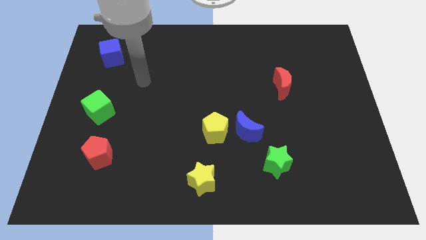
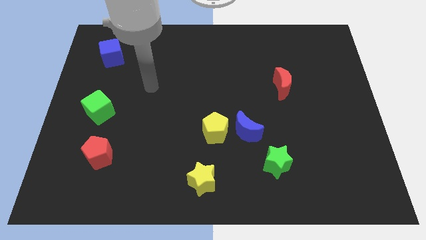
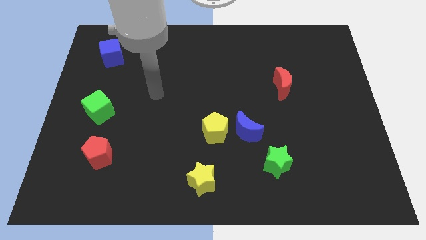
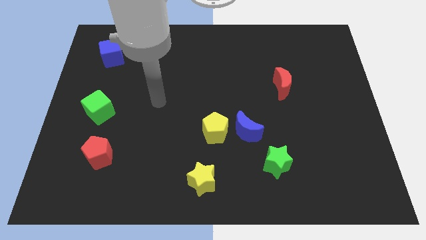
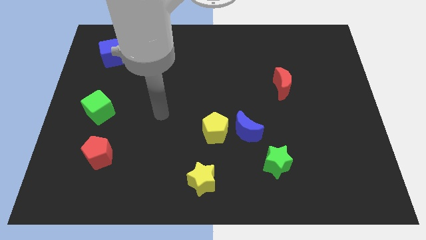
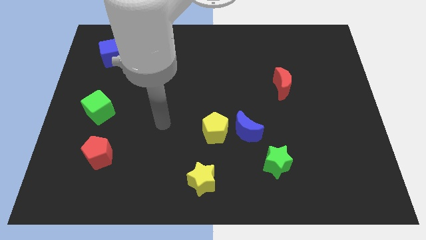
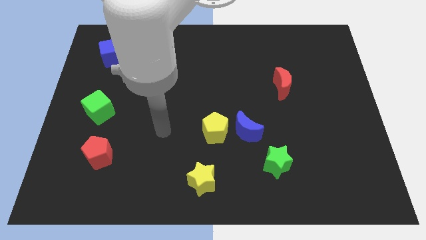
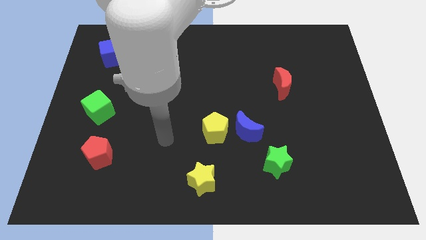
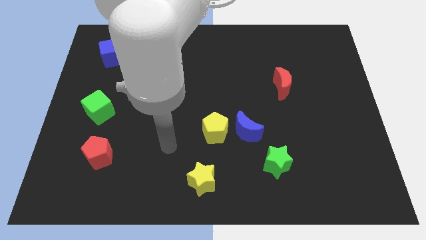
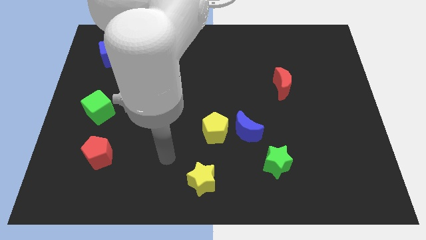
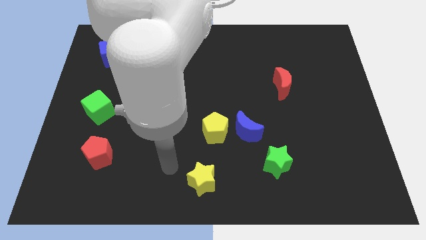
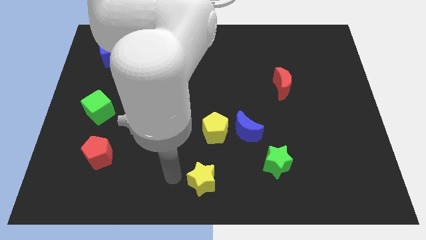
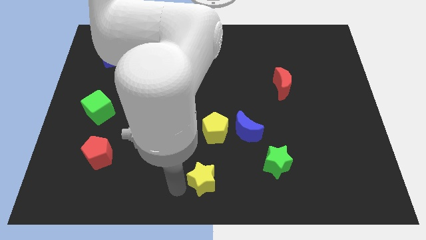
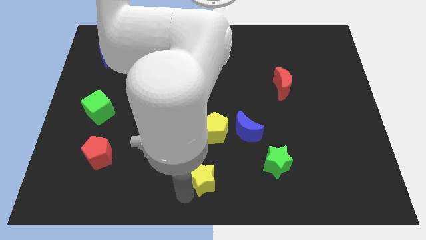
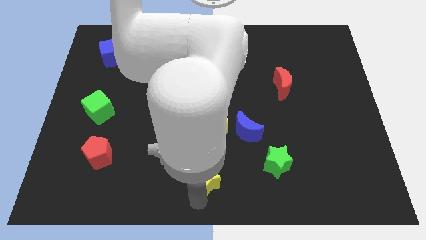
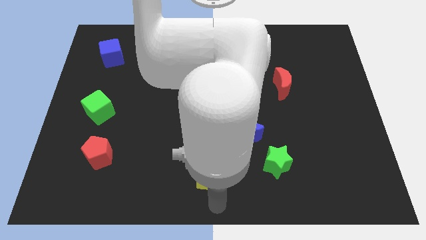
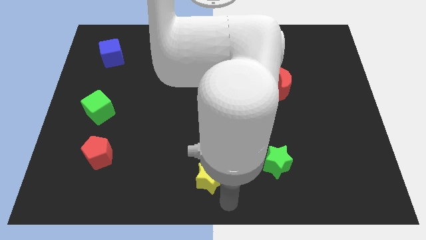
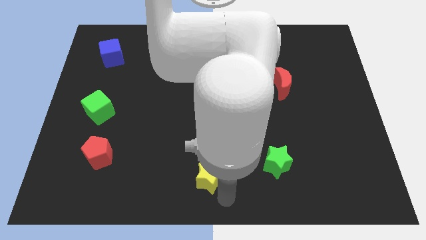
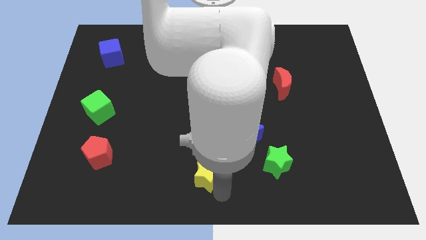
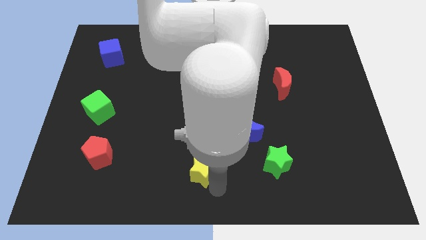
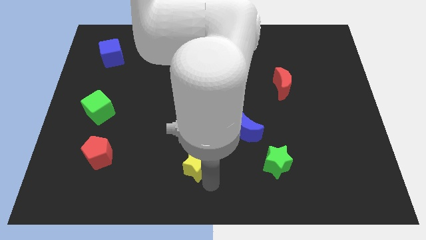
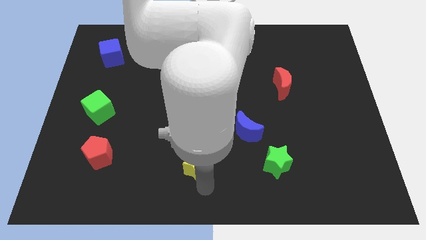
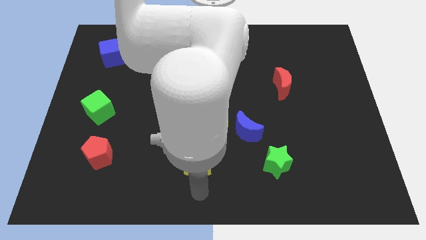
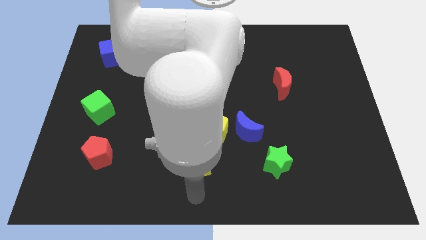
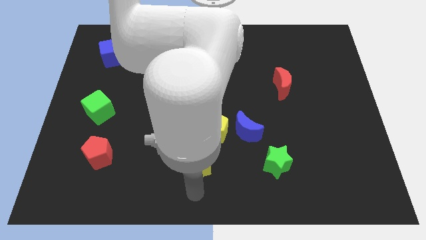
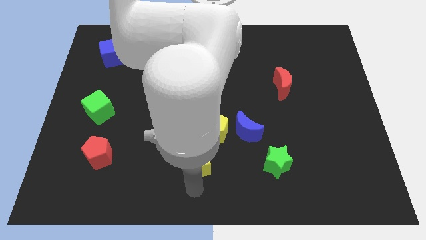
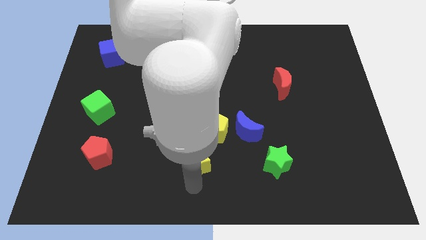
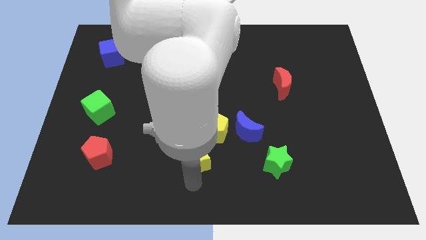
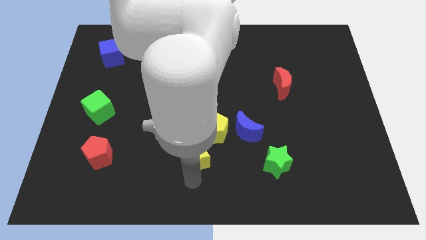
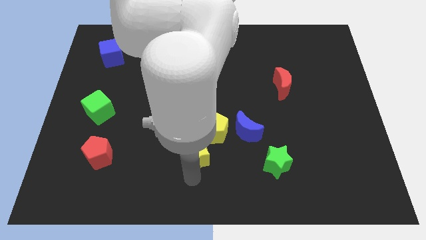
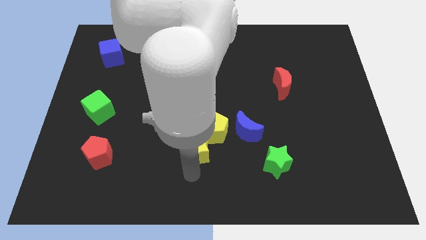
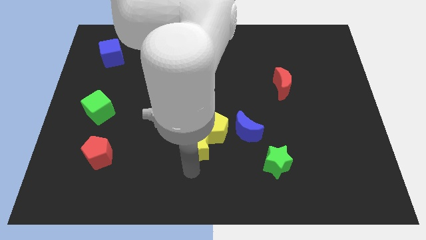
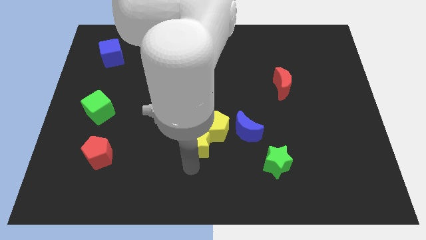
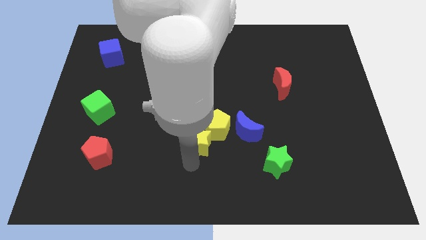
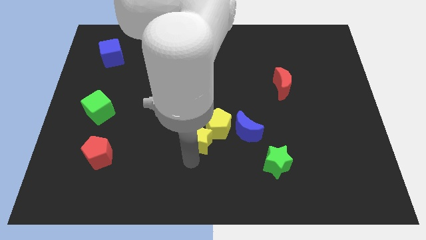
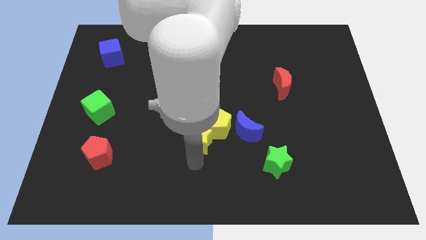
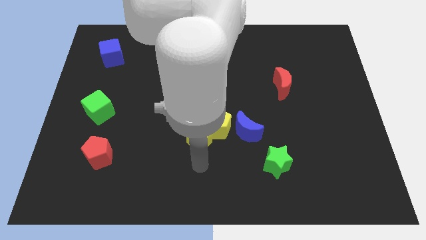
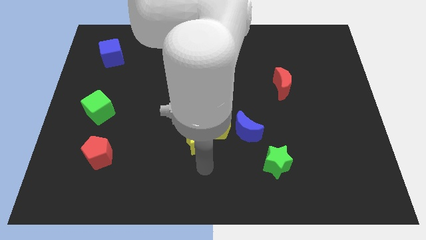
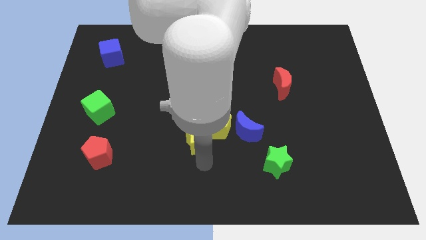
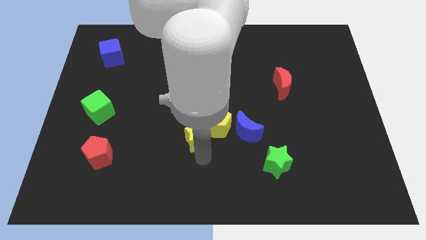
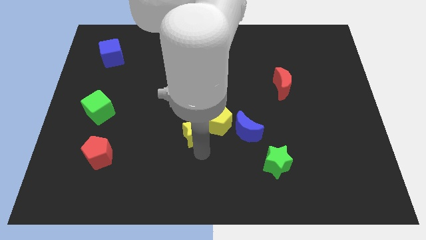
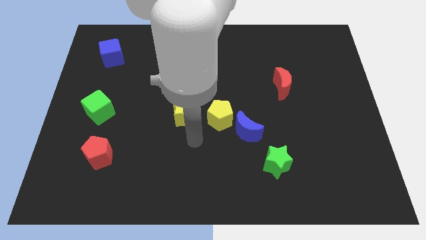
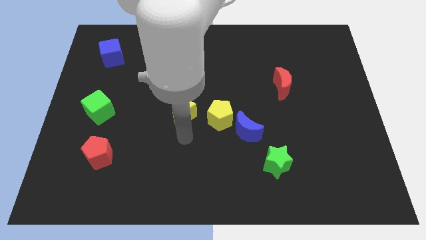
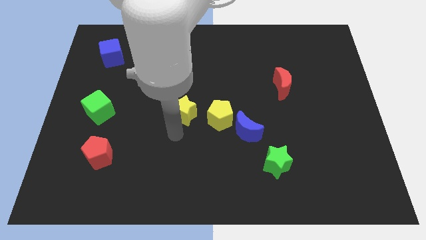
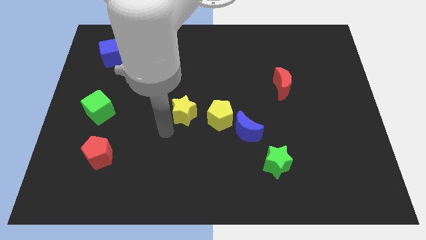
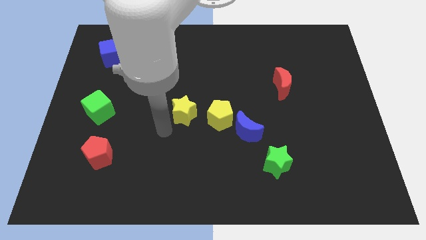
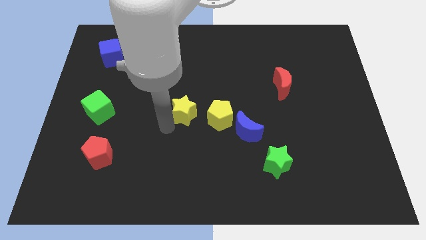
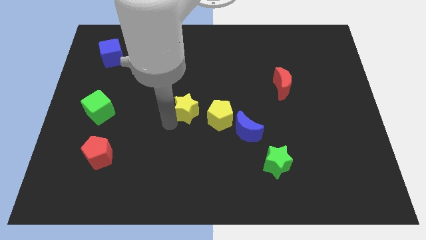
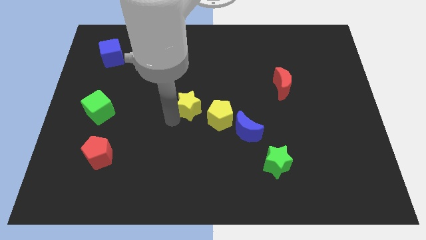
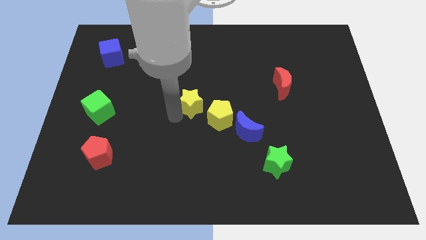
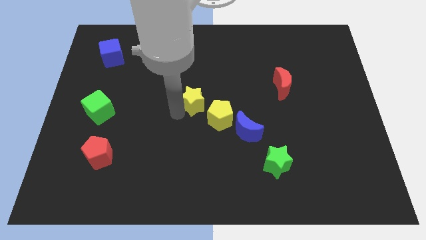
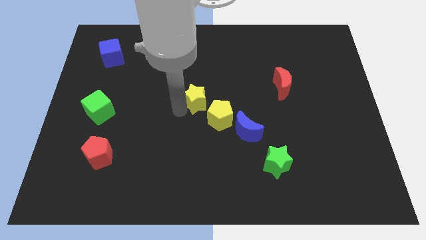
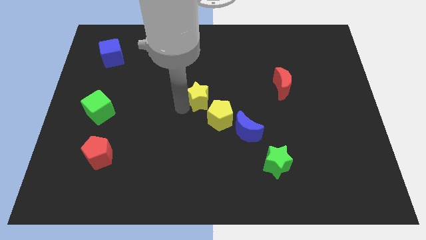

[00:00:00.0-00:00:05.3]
put the yellow star to the top side of the yellow pentagon

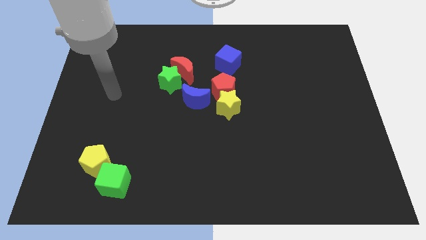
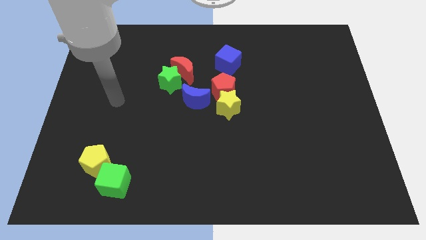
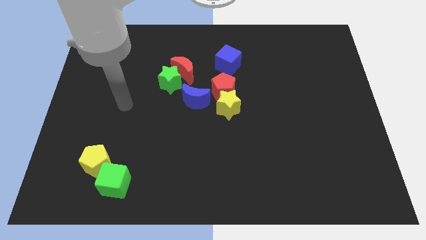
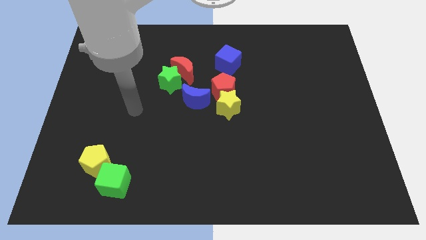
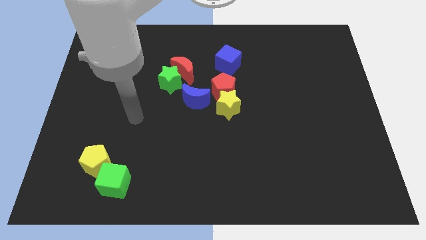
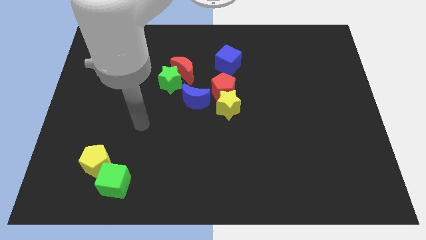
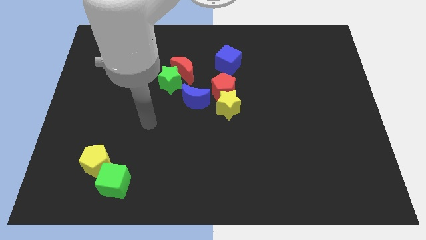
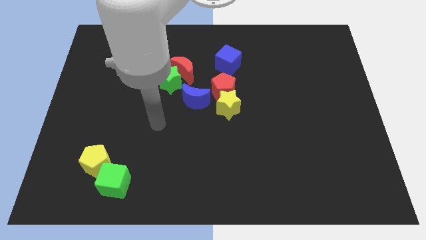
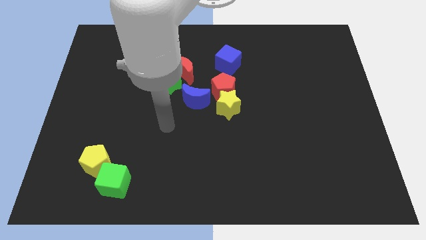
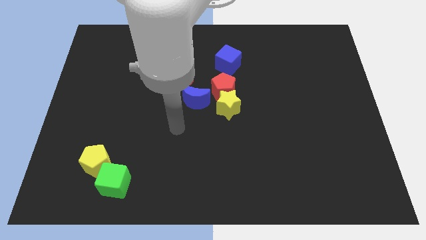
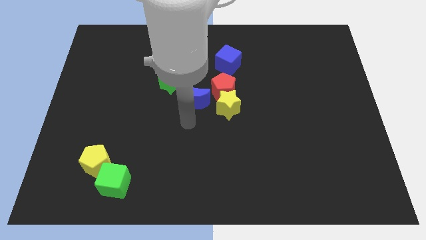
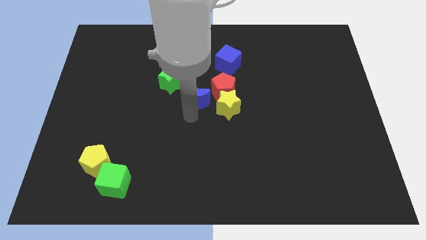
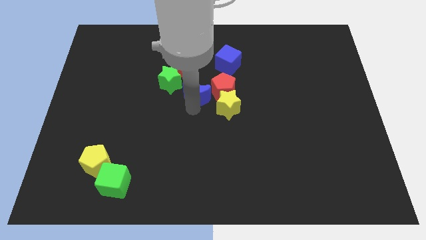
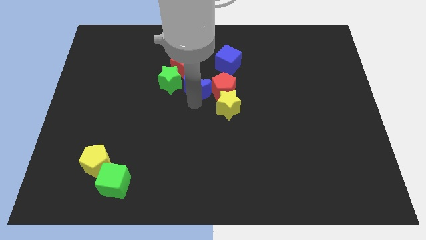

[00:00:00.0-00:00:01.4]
push the blue moon diagonally up and to the left of the red pentagon

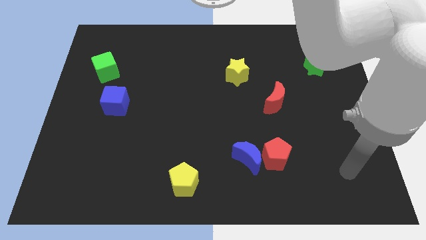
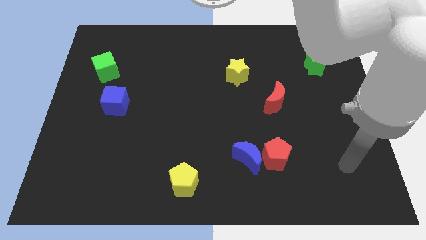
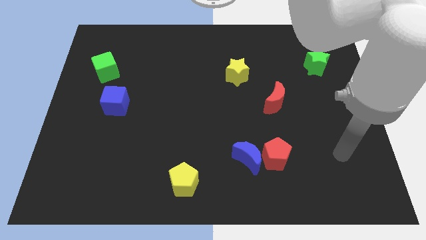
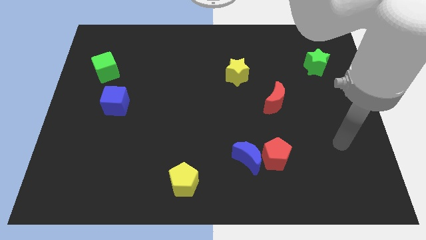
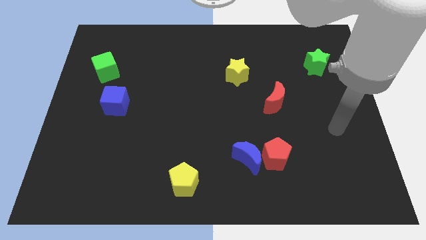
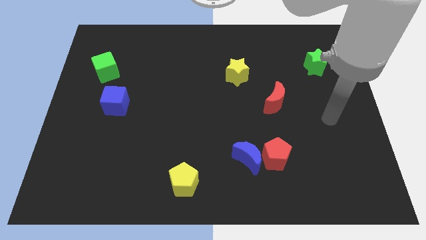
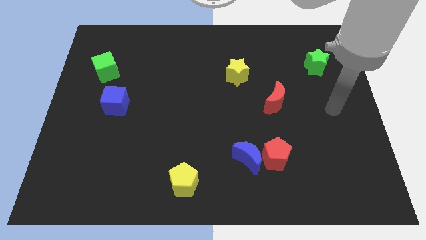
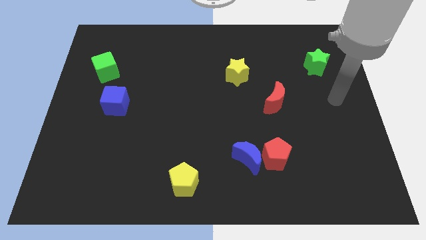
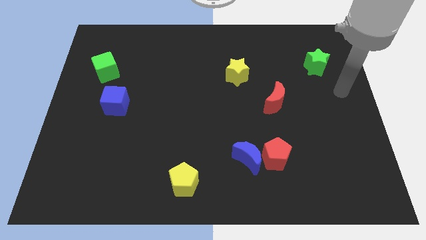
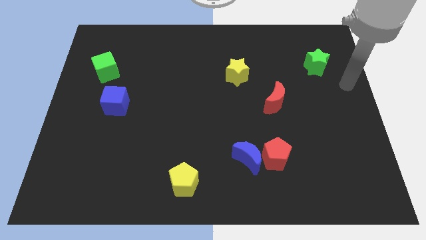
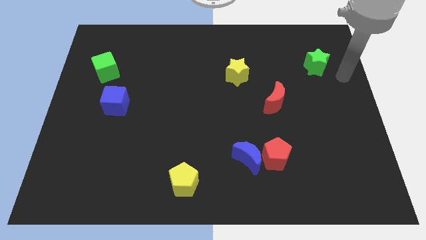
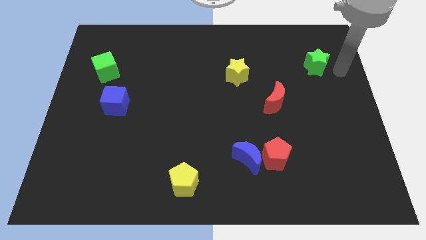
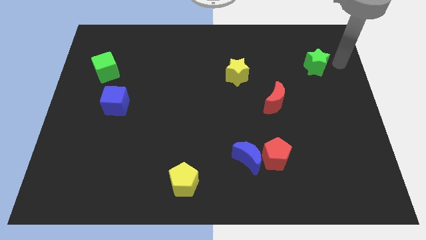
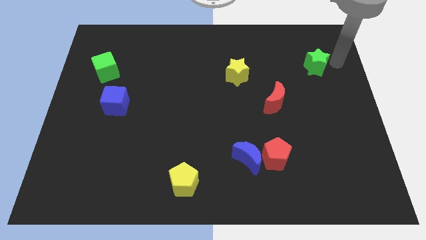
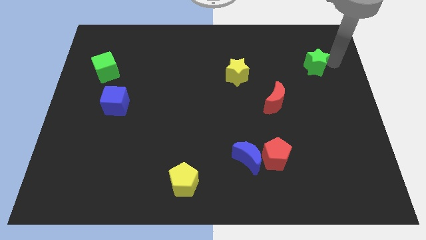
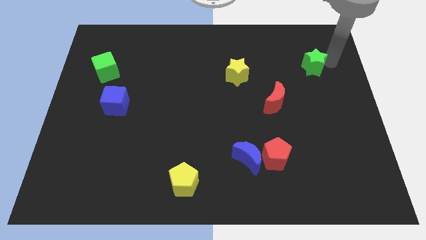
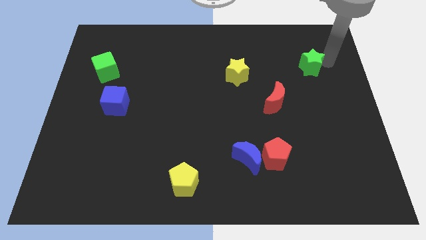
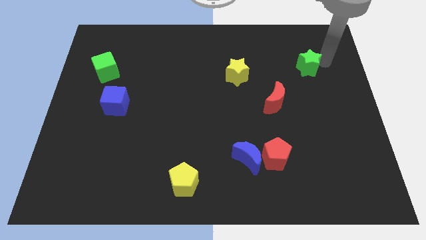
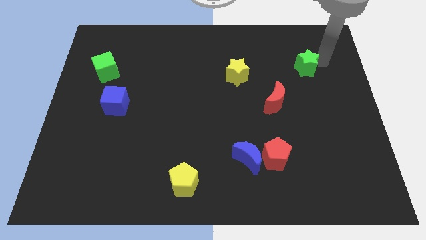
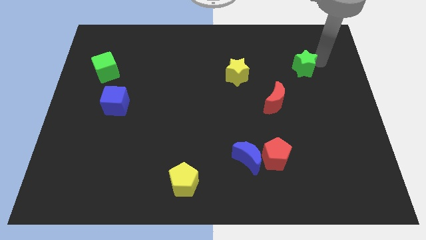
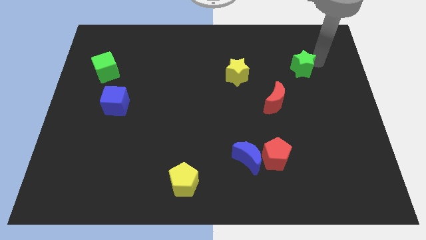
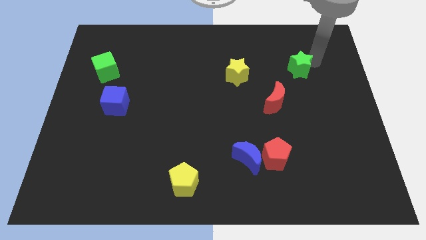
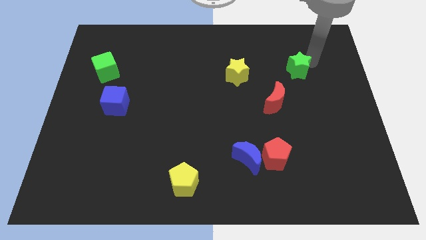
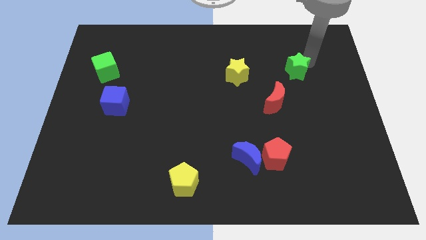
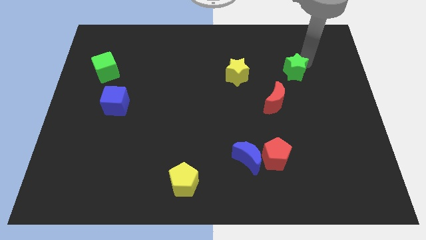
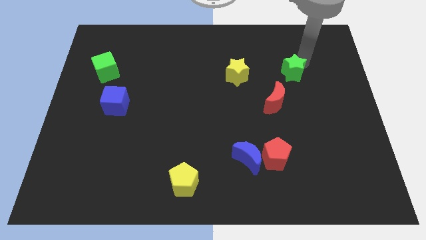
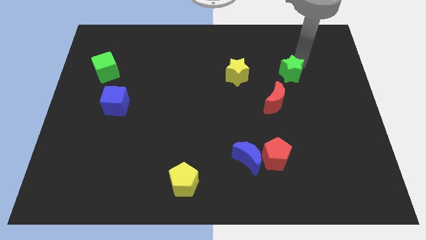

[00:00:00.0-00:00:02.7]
move the green star to the top side of the red moon
